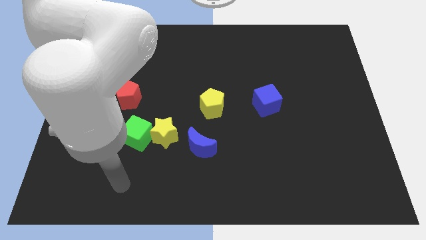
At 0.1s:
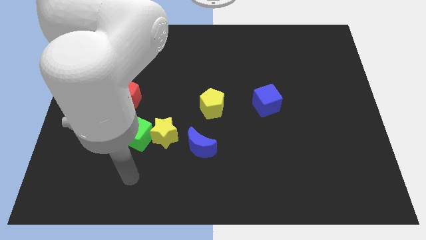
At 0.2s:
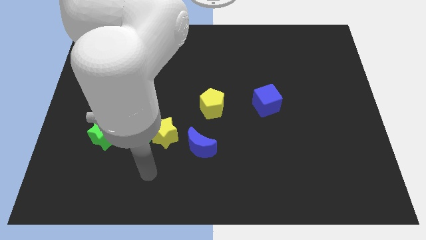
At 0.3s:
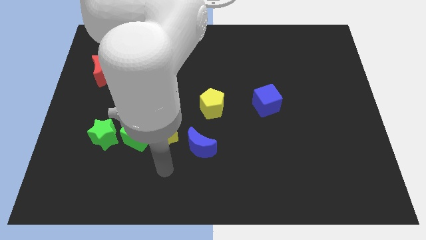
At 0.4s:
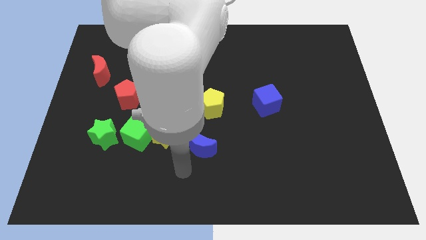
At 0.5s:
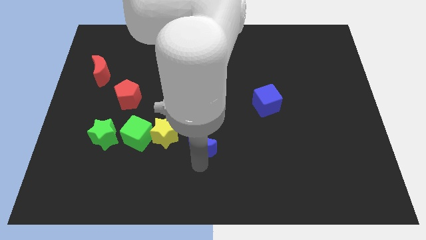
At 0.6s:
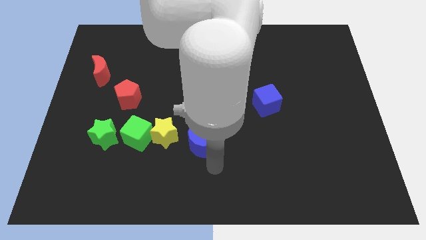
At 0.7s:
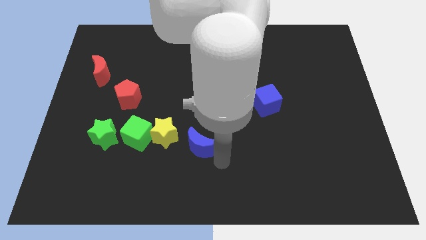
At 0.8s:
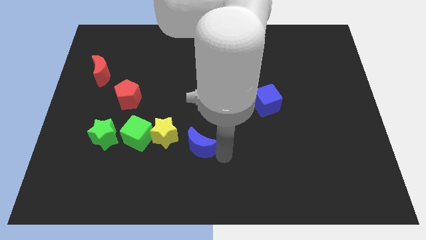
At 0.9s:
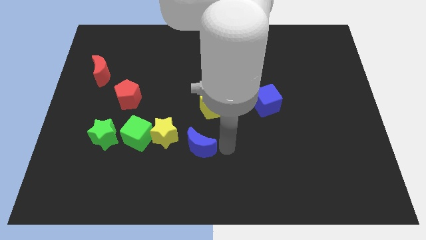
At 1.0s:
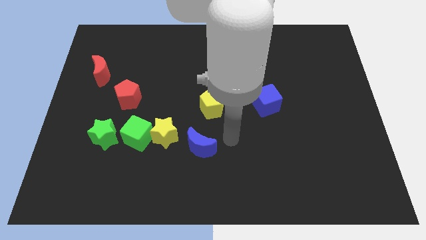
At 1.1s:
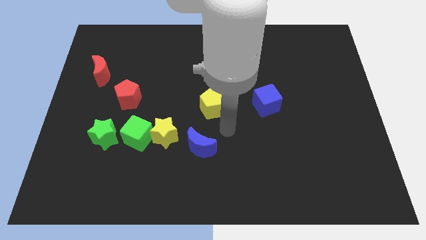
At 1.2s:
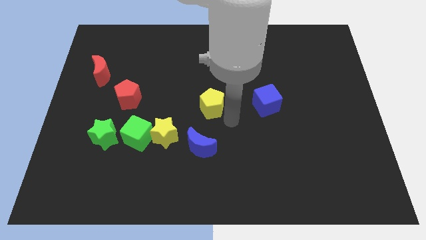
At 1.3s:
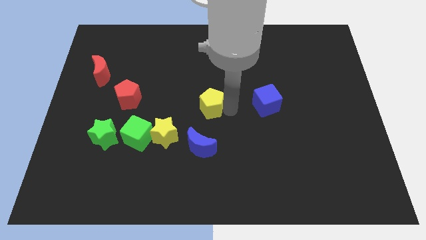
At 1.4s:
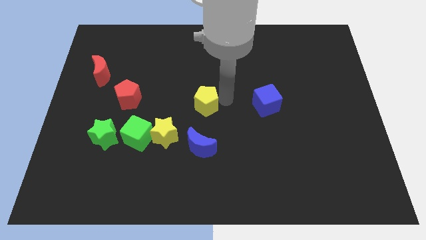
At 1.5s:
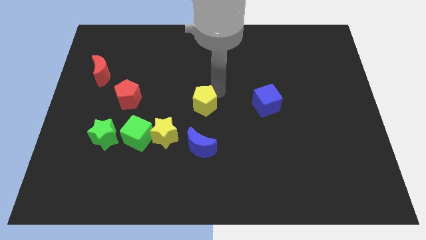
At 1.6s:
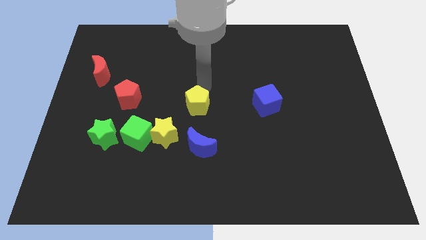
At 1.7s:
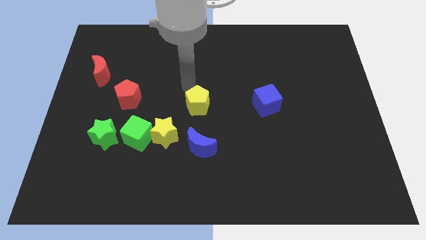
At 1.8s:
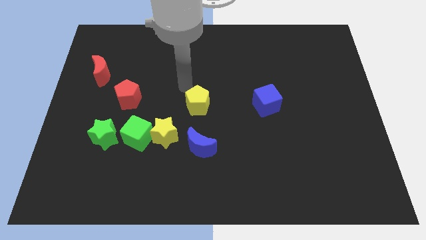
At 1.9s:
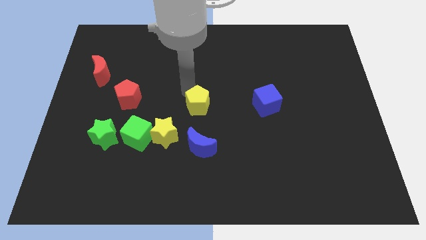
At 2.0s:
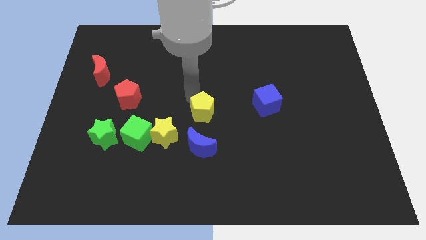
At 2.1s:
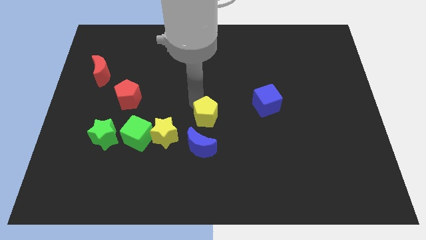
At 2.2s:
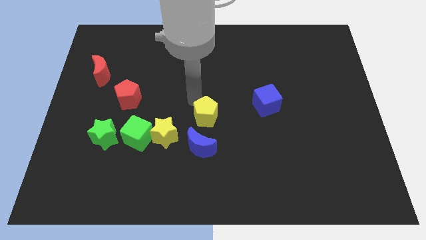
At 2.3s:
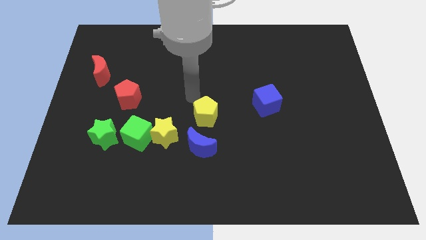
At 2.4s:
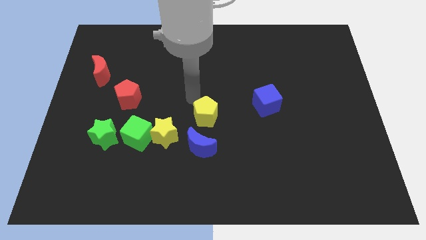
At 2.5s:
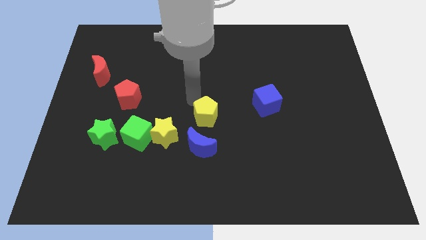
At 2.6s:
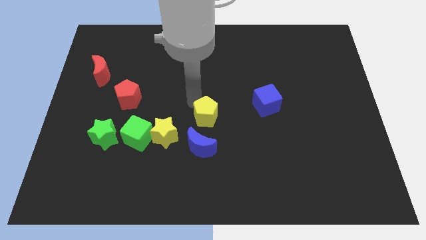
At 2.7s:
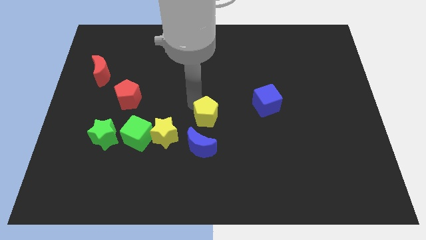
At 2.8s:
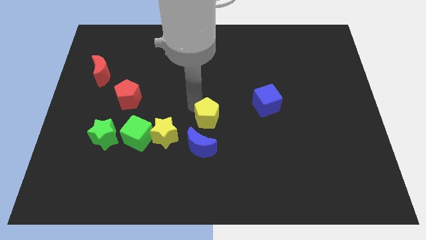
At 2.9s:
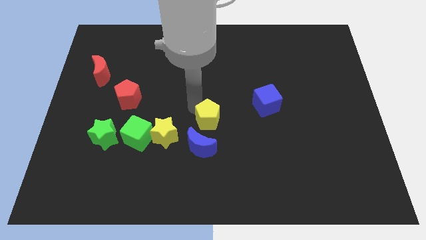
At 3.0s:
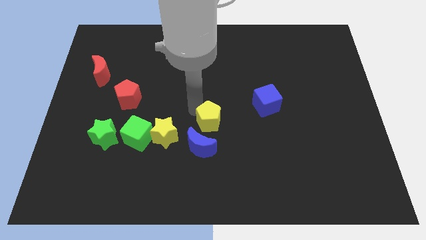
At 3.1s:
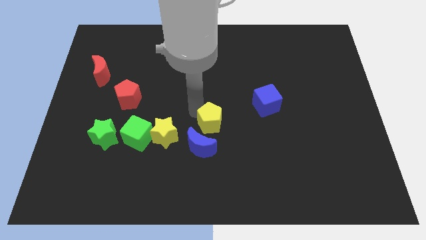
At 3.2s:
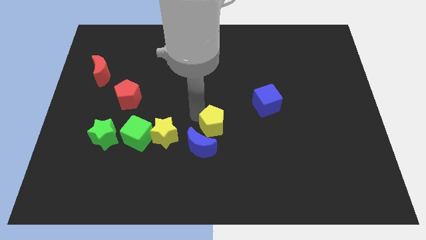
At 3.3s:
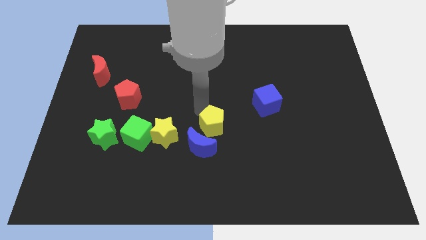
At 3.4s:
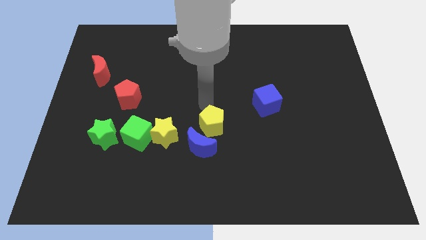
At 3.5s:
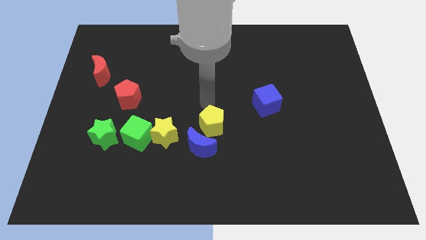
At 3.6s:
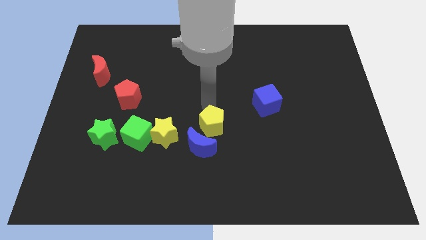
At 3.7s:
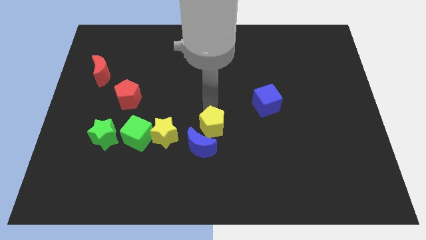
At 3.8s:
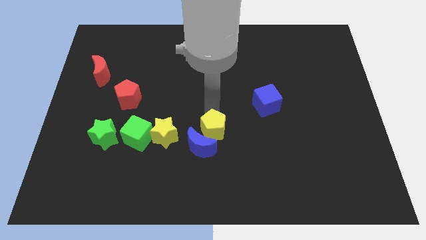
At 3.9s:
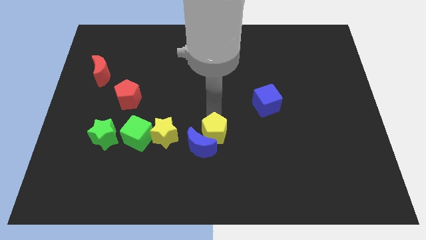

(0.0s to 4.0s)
move the yellow pentagon downwards a bit

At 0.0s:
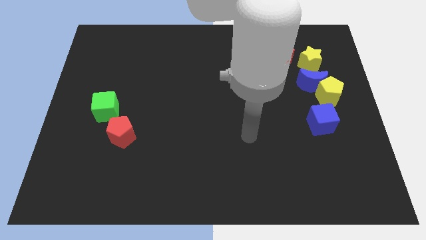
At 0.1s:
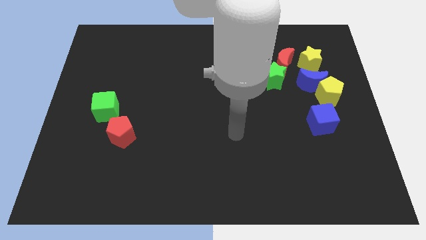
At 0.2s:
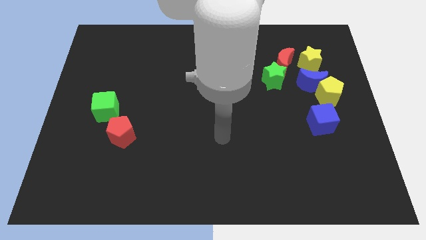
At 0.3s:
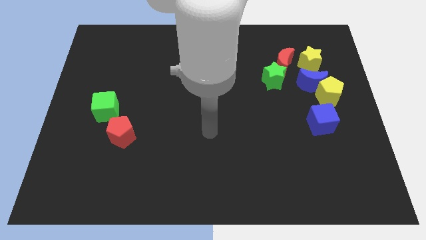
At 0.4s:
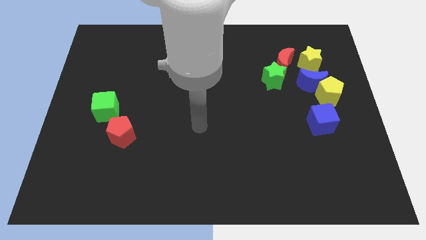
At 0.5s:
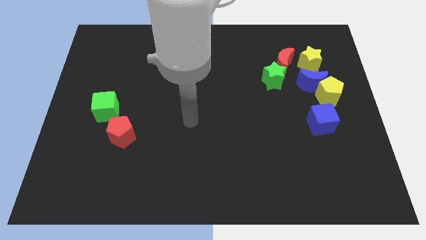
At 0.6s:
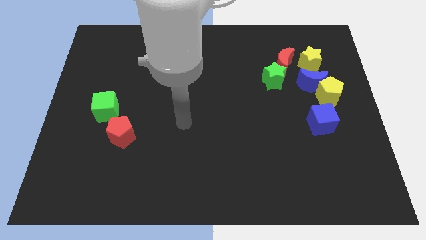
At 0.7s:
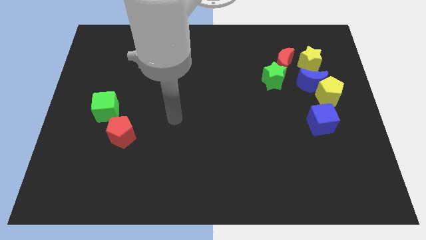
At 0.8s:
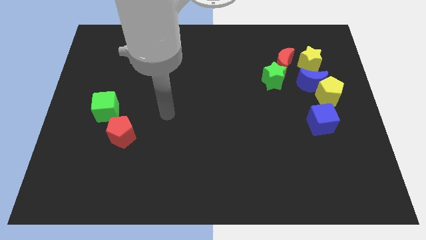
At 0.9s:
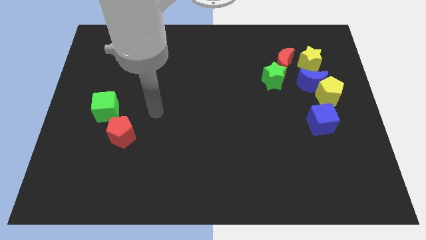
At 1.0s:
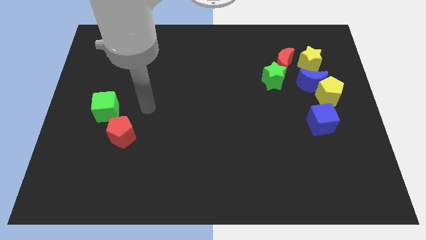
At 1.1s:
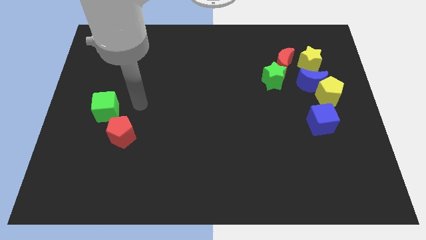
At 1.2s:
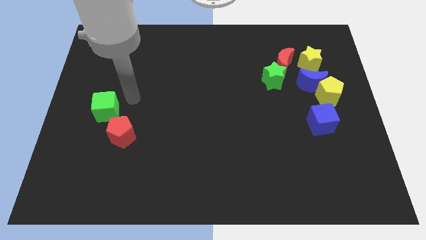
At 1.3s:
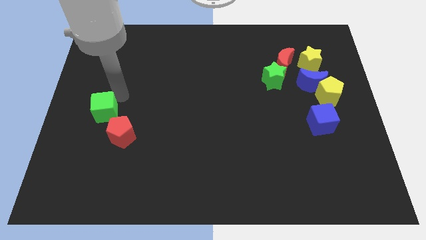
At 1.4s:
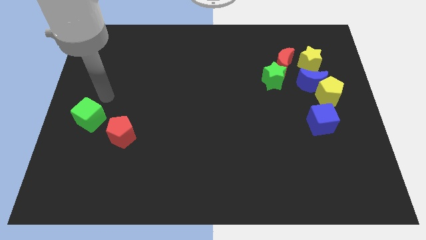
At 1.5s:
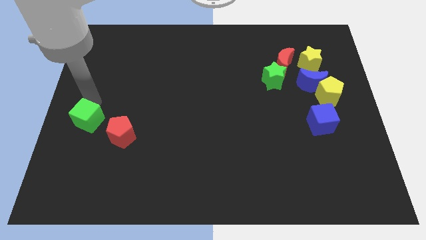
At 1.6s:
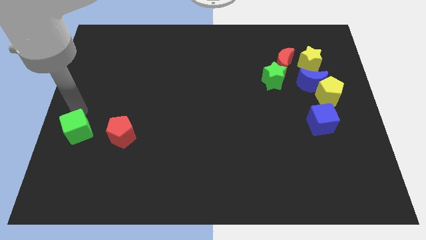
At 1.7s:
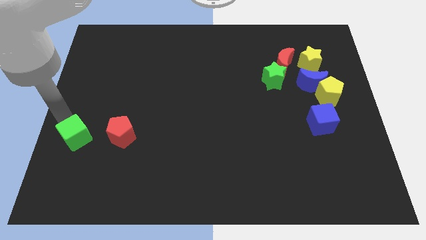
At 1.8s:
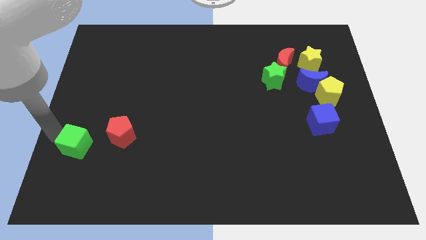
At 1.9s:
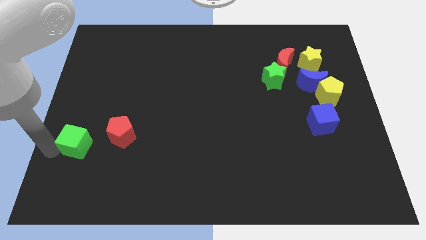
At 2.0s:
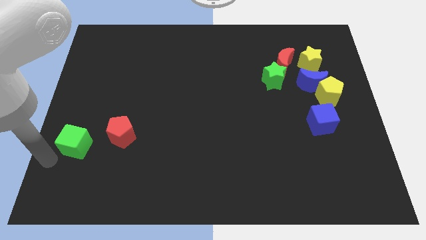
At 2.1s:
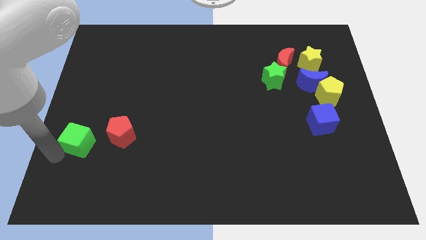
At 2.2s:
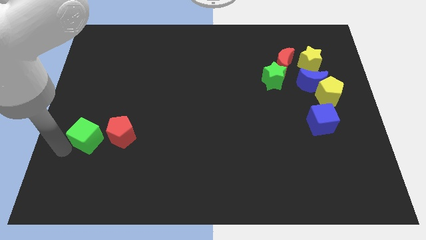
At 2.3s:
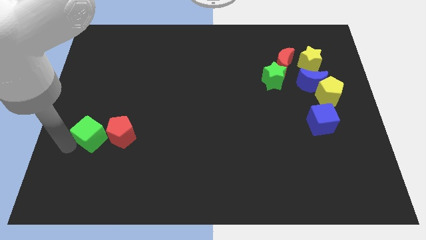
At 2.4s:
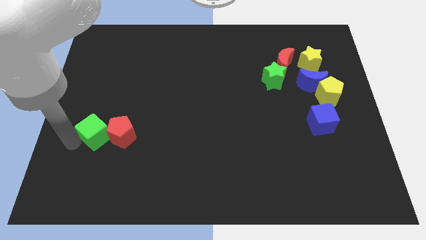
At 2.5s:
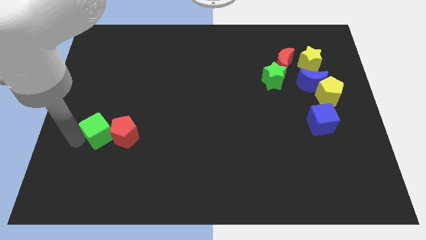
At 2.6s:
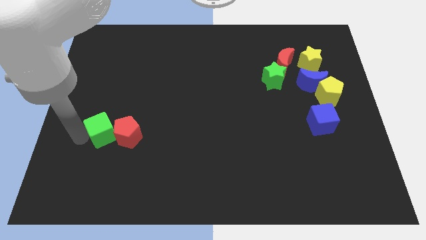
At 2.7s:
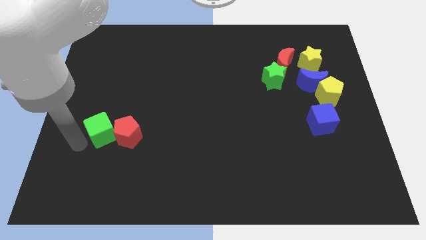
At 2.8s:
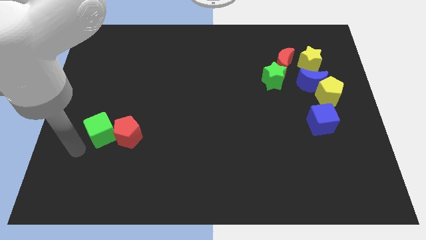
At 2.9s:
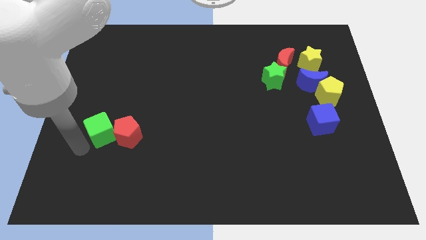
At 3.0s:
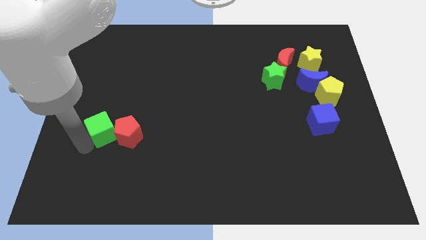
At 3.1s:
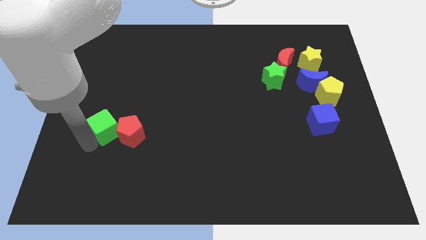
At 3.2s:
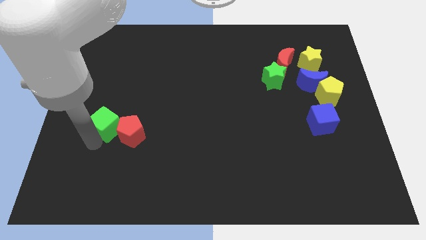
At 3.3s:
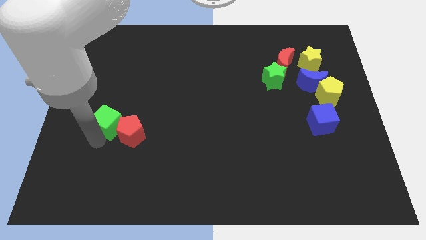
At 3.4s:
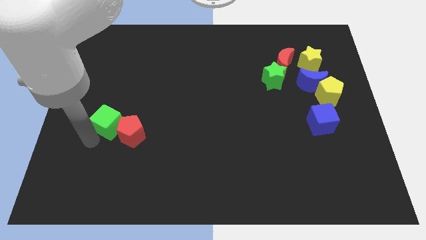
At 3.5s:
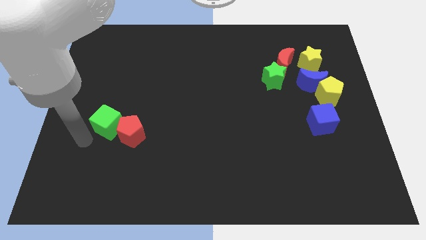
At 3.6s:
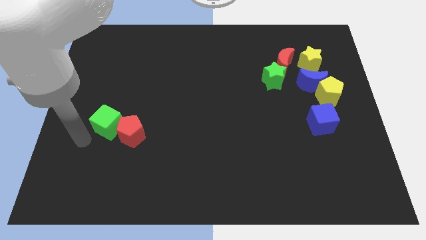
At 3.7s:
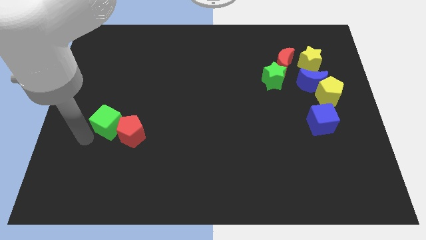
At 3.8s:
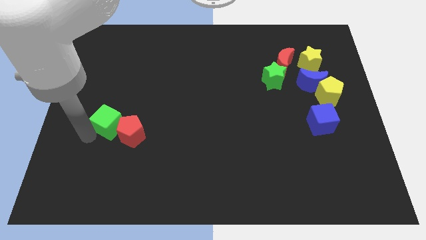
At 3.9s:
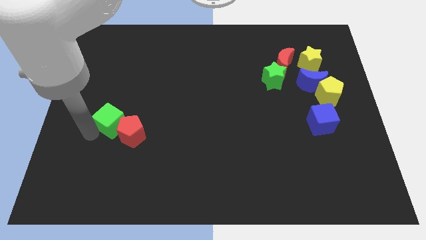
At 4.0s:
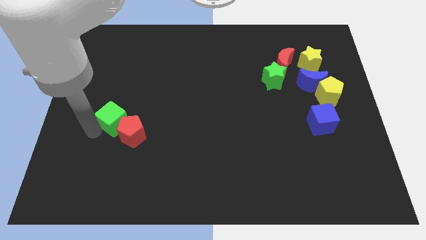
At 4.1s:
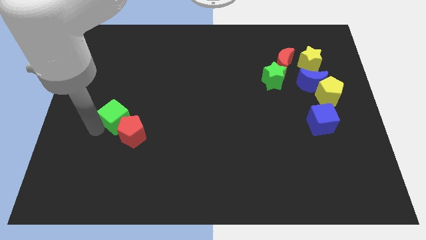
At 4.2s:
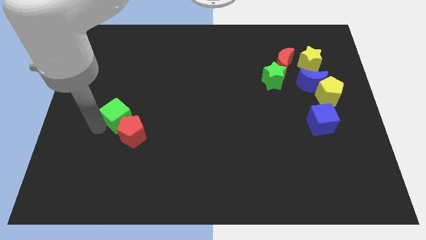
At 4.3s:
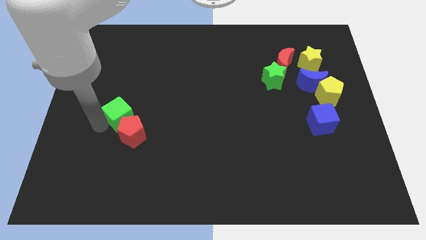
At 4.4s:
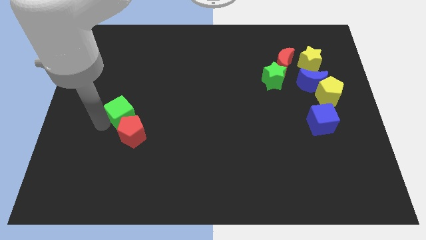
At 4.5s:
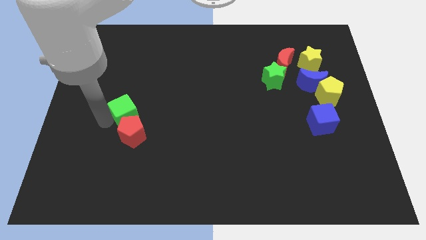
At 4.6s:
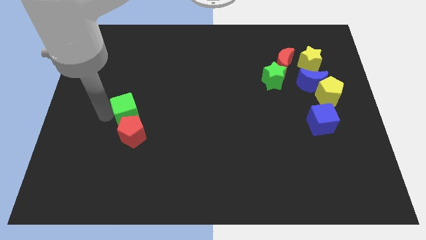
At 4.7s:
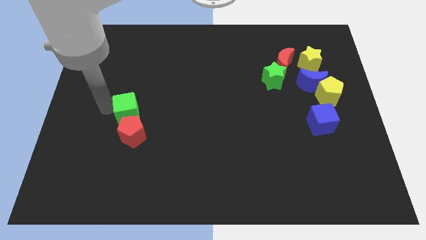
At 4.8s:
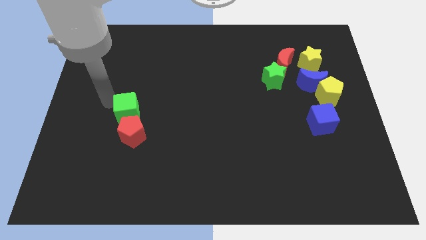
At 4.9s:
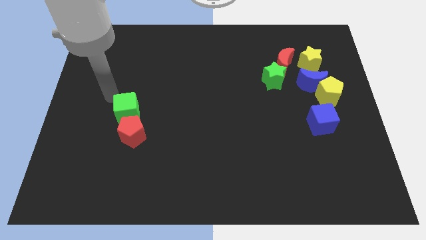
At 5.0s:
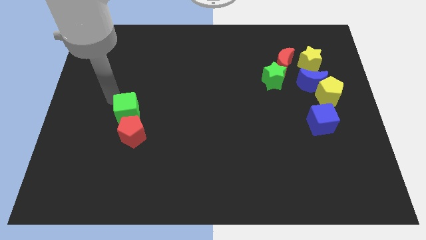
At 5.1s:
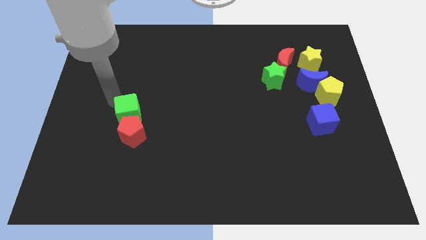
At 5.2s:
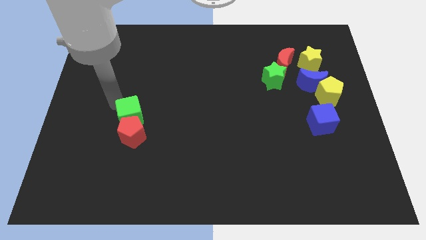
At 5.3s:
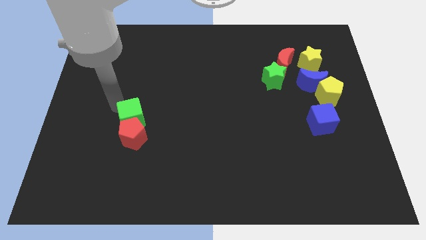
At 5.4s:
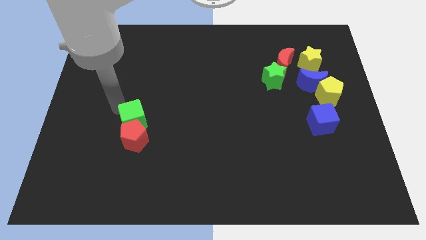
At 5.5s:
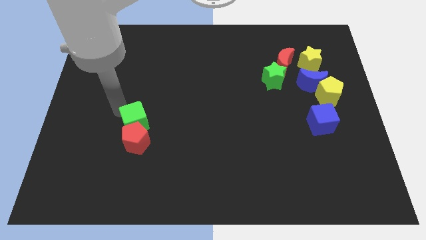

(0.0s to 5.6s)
slightly slide the green cube downwards and right diagonally
